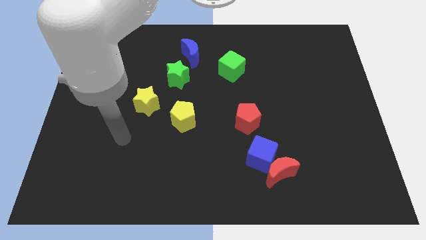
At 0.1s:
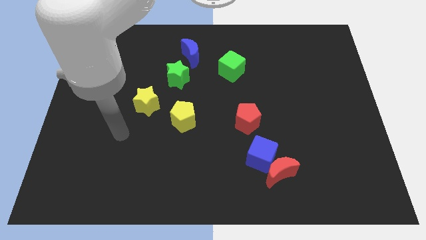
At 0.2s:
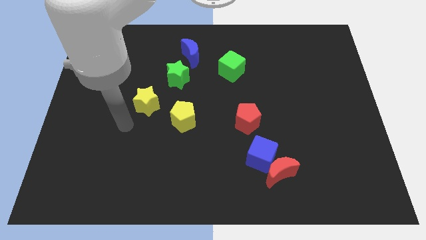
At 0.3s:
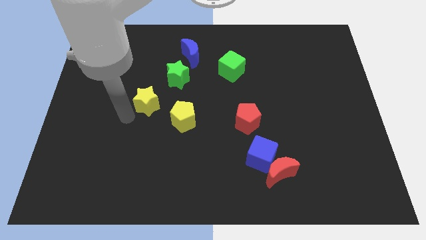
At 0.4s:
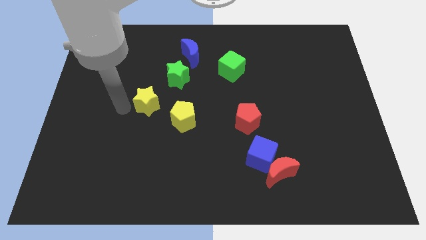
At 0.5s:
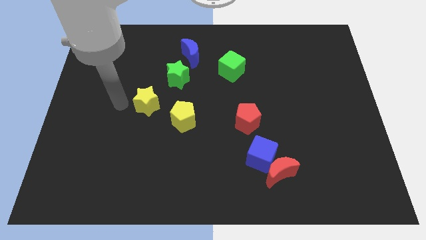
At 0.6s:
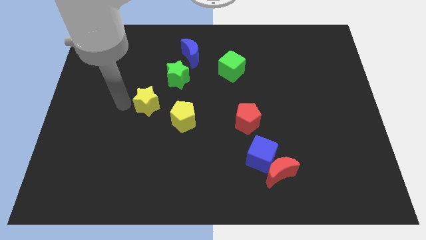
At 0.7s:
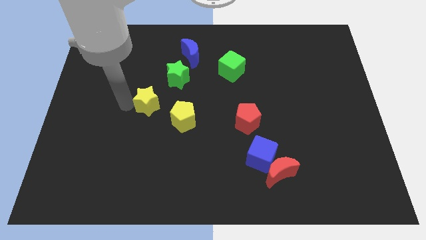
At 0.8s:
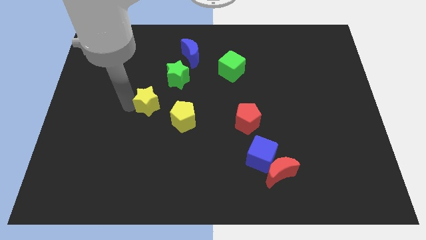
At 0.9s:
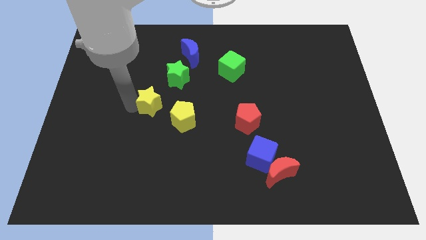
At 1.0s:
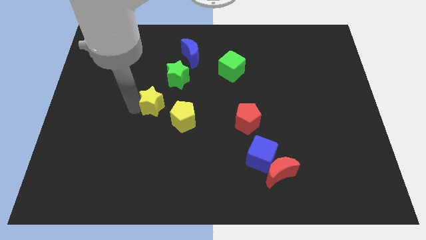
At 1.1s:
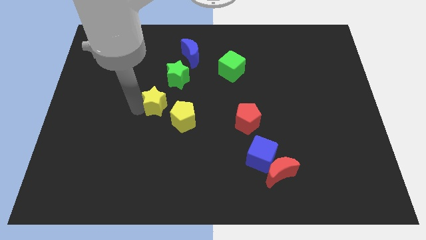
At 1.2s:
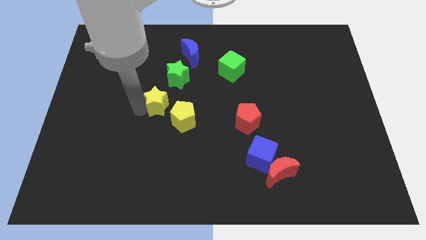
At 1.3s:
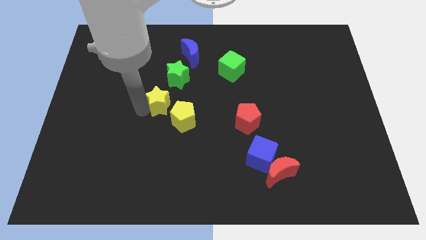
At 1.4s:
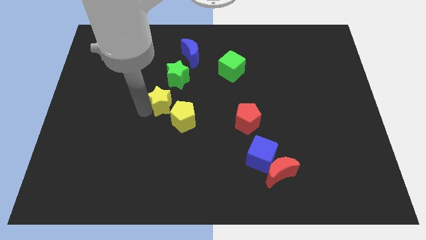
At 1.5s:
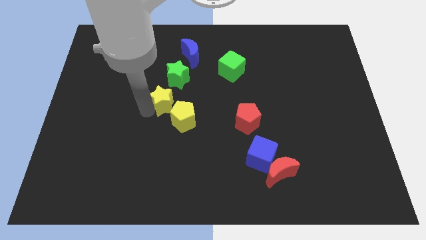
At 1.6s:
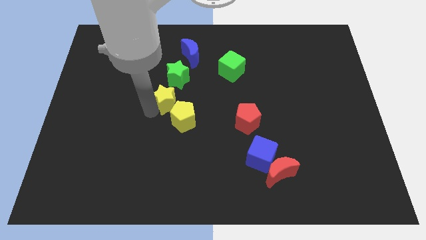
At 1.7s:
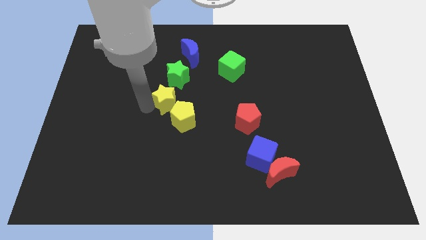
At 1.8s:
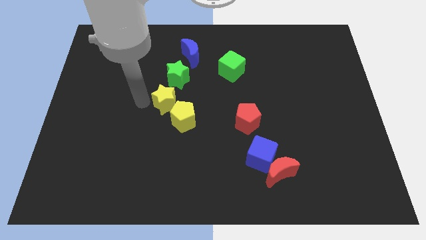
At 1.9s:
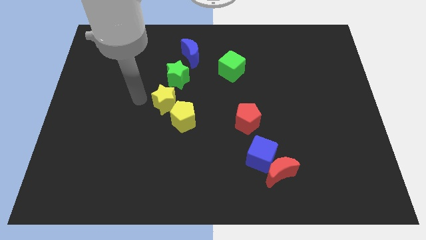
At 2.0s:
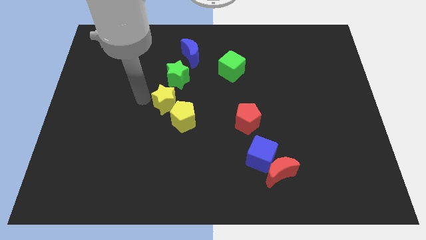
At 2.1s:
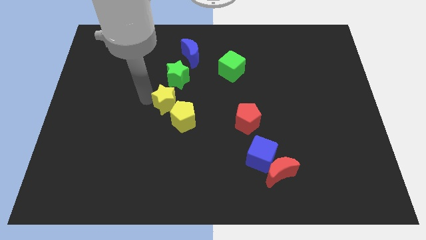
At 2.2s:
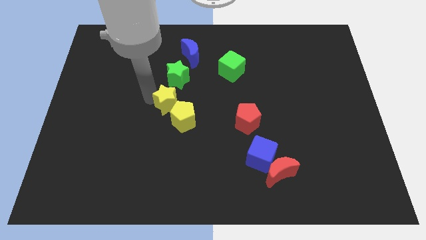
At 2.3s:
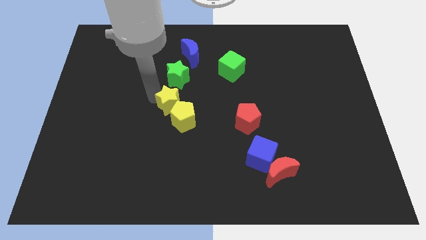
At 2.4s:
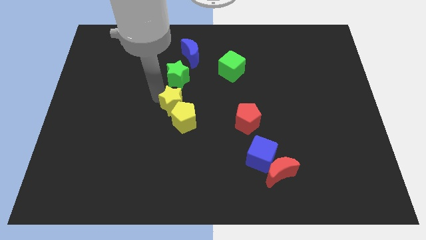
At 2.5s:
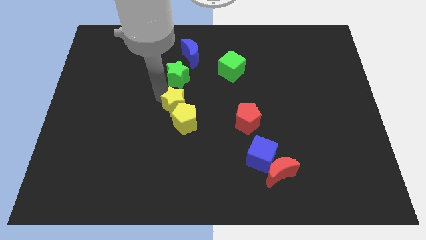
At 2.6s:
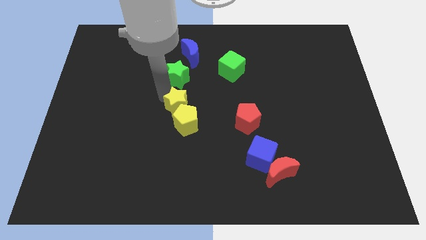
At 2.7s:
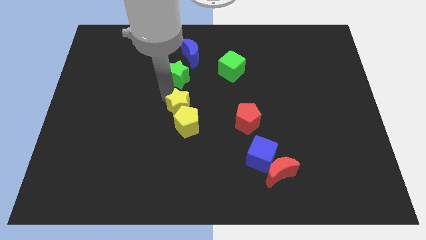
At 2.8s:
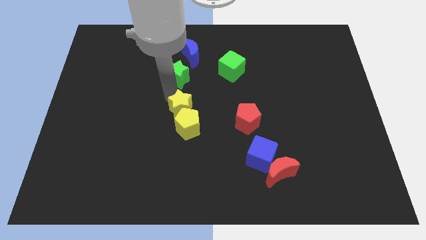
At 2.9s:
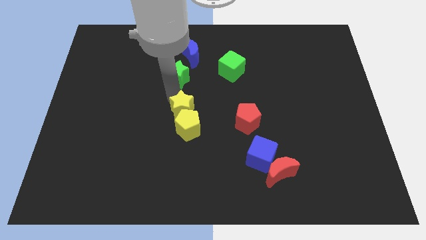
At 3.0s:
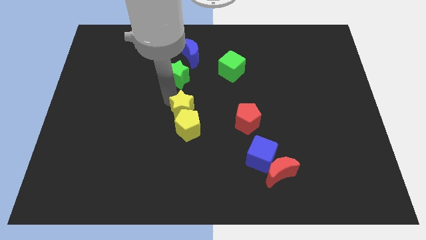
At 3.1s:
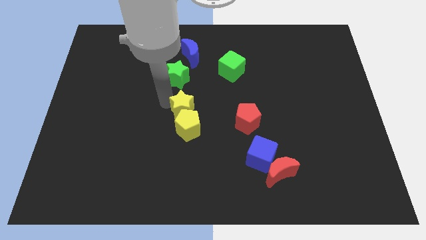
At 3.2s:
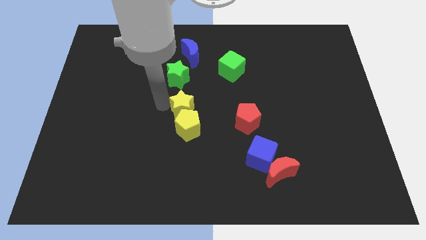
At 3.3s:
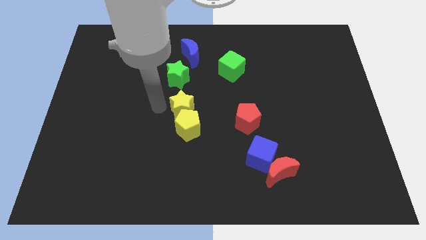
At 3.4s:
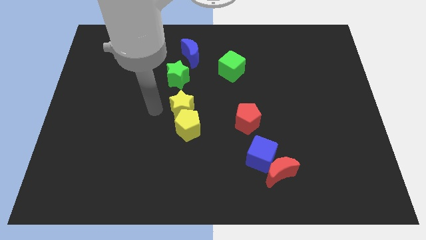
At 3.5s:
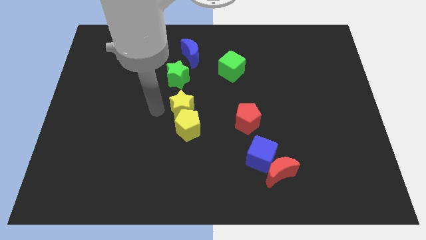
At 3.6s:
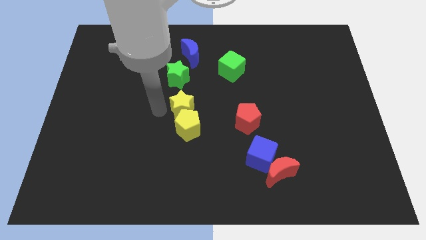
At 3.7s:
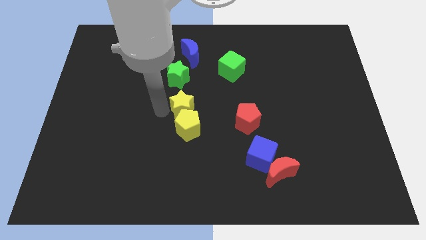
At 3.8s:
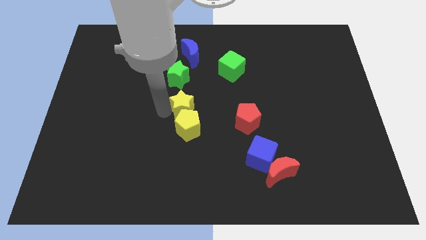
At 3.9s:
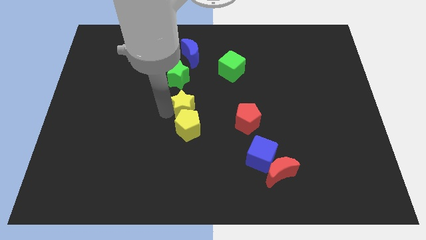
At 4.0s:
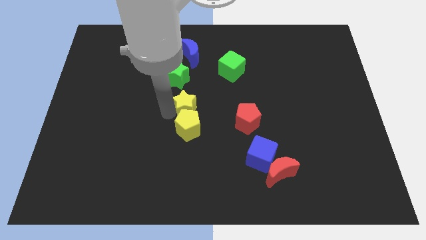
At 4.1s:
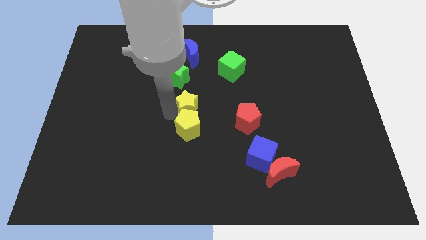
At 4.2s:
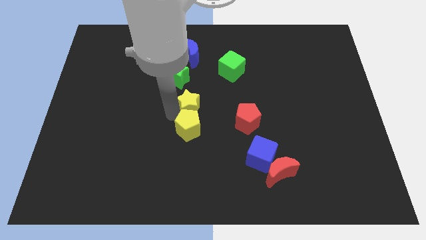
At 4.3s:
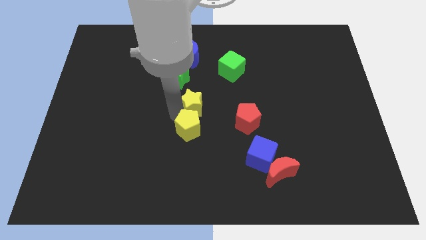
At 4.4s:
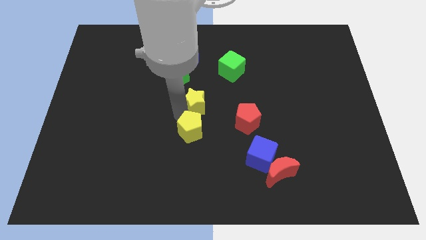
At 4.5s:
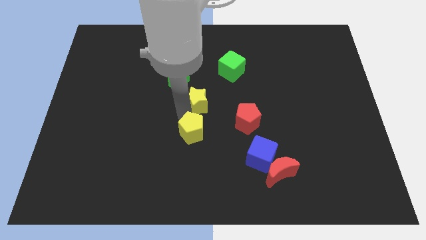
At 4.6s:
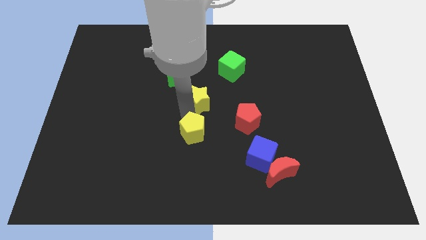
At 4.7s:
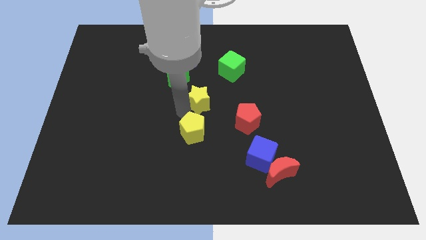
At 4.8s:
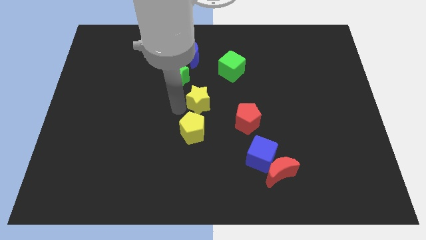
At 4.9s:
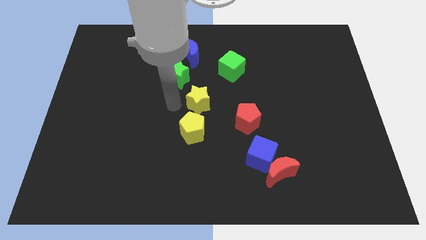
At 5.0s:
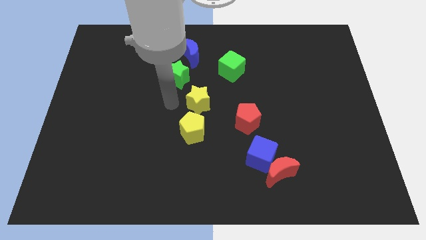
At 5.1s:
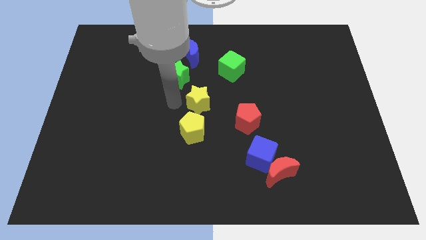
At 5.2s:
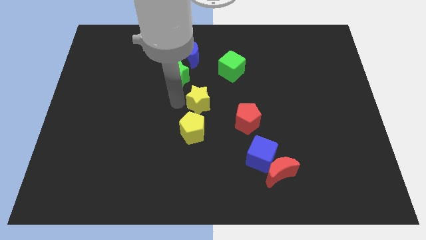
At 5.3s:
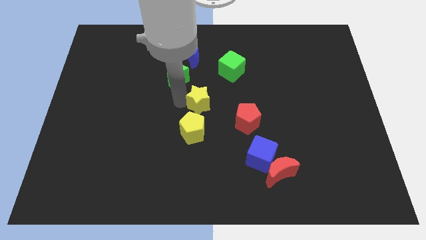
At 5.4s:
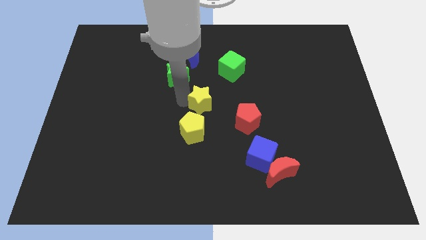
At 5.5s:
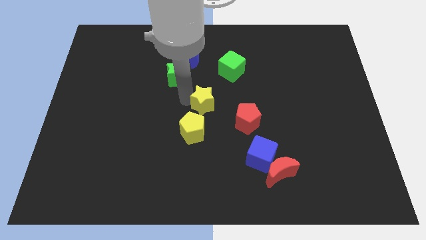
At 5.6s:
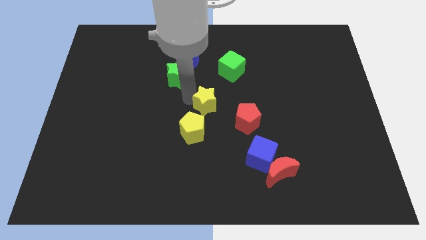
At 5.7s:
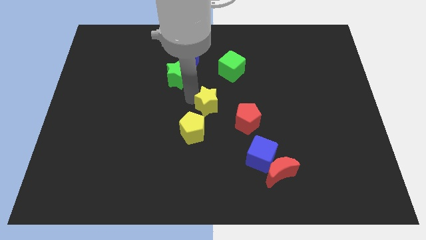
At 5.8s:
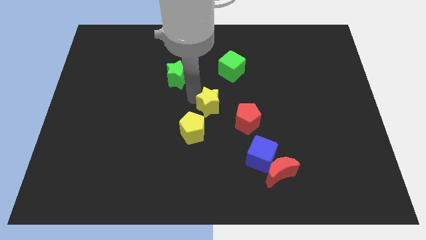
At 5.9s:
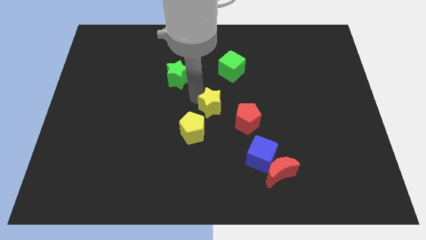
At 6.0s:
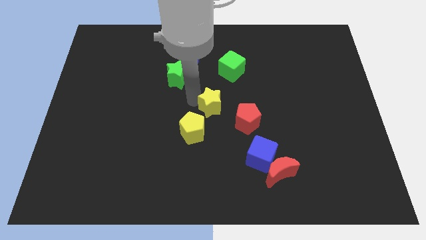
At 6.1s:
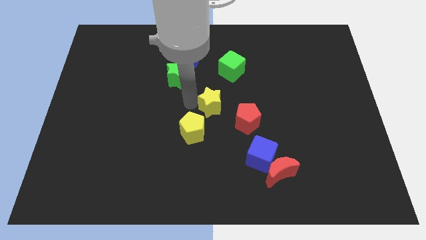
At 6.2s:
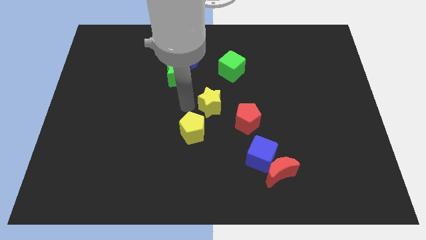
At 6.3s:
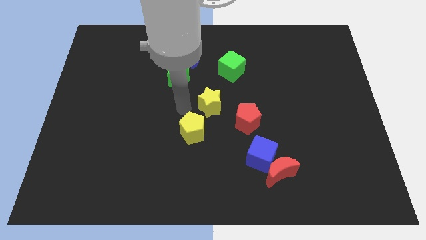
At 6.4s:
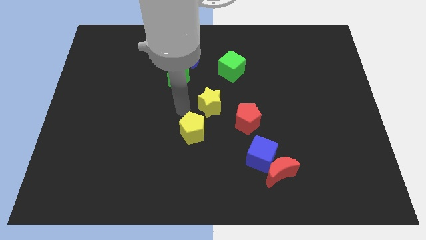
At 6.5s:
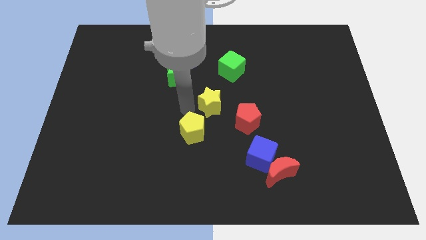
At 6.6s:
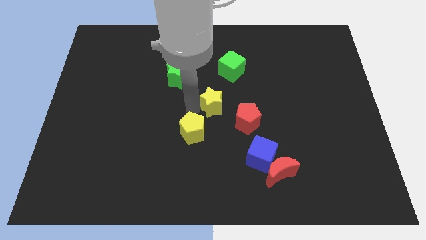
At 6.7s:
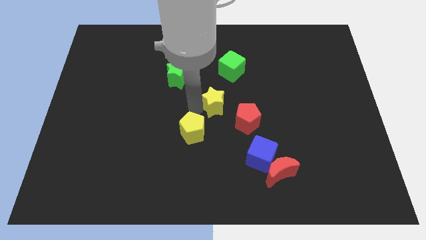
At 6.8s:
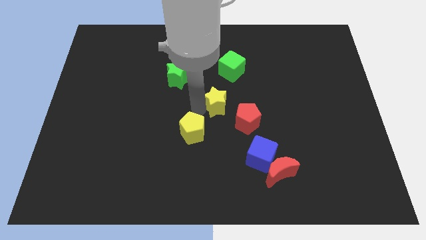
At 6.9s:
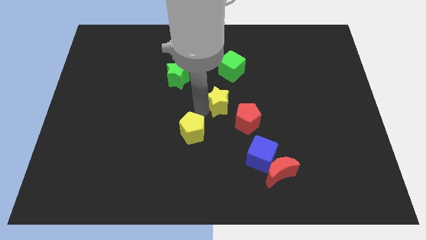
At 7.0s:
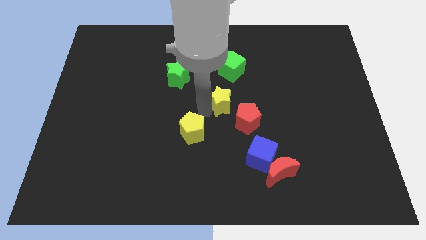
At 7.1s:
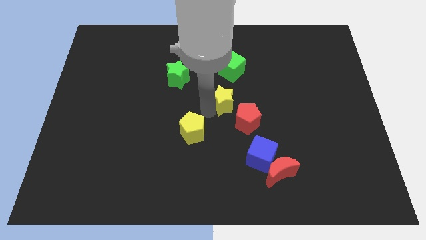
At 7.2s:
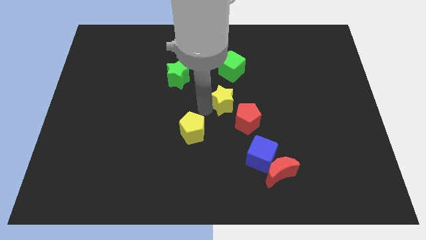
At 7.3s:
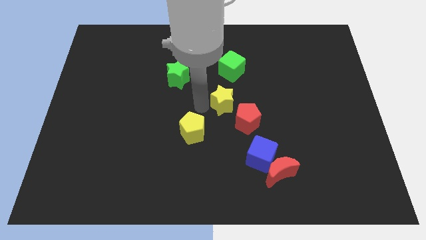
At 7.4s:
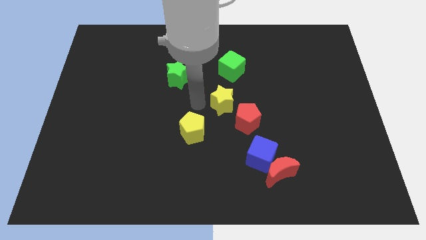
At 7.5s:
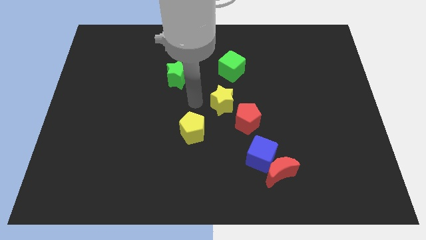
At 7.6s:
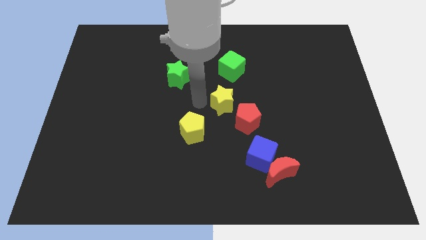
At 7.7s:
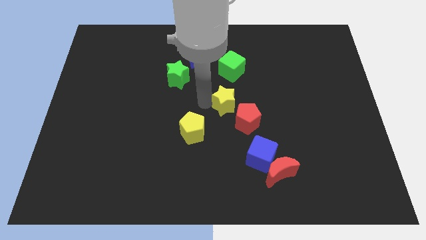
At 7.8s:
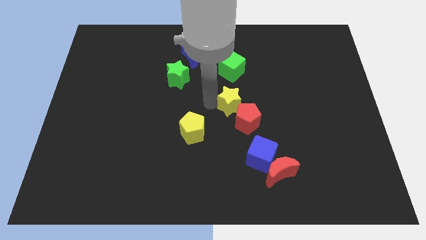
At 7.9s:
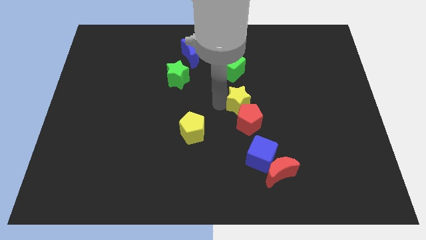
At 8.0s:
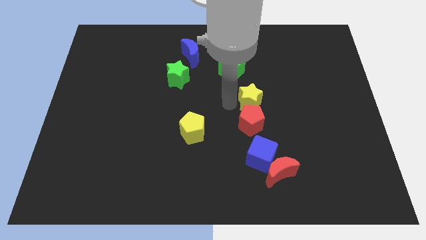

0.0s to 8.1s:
push the yellow star to the top right of the red pentagon
